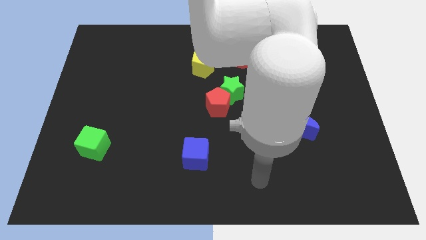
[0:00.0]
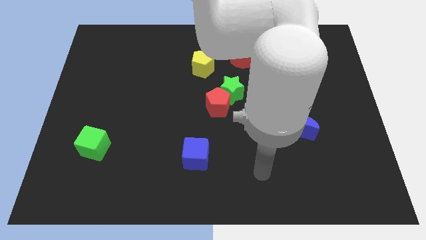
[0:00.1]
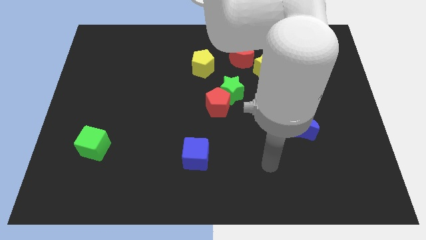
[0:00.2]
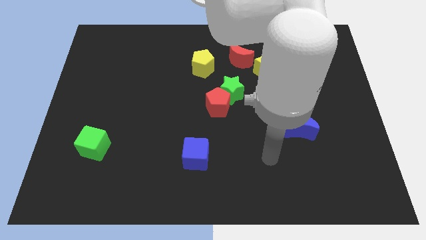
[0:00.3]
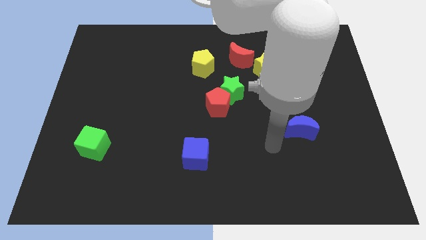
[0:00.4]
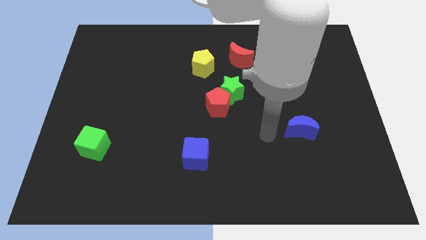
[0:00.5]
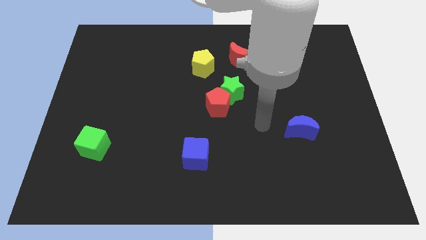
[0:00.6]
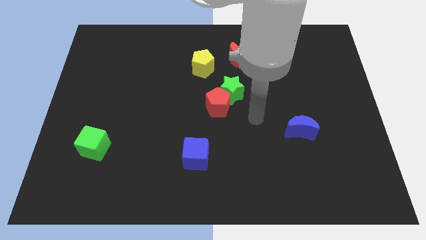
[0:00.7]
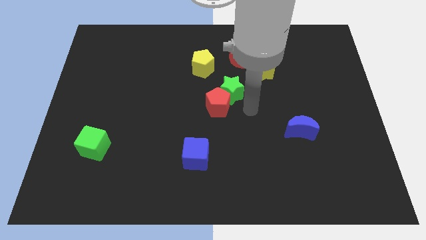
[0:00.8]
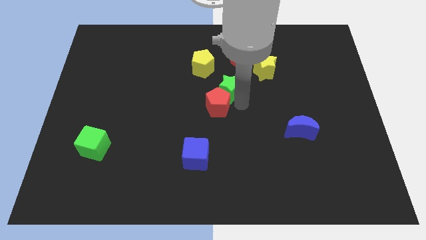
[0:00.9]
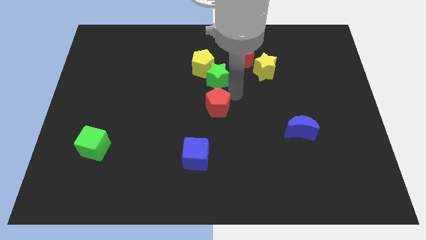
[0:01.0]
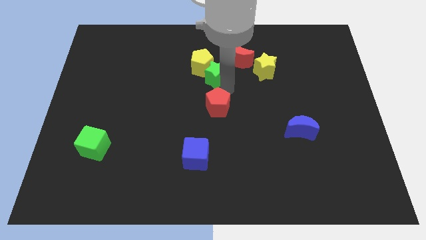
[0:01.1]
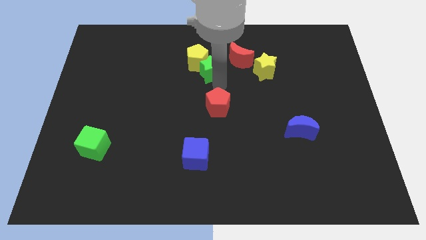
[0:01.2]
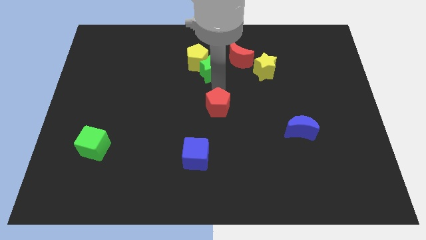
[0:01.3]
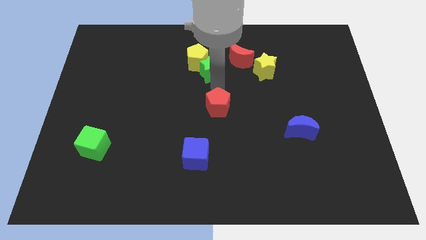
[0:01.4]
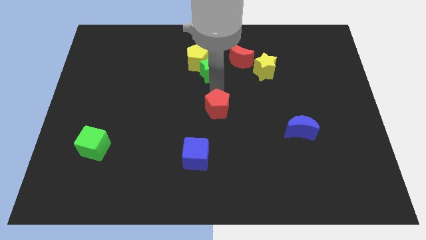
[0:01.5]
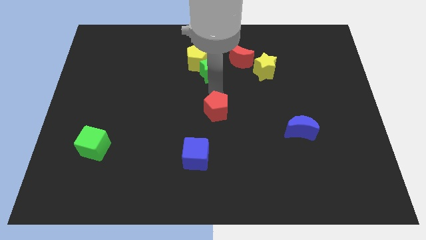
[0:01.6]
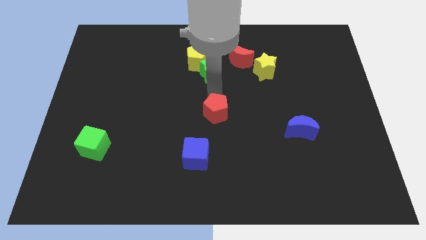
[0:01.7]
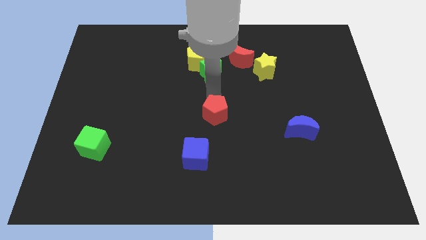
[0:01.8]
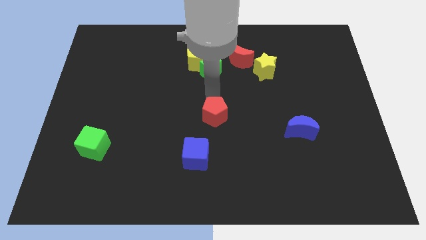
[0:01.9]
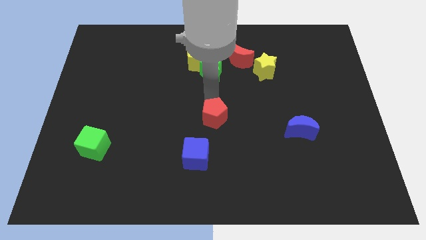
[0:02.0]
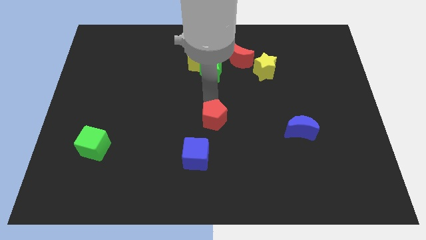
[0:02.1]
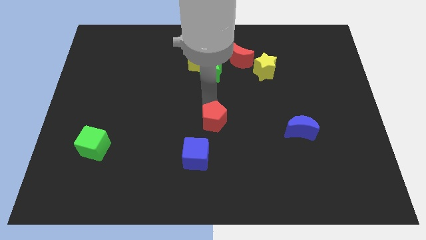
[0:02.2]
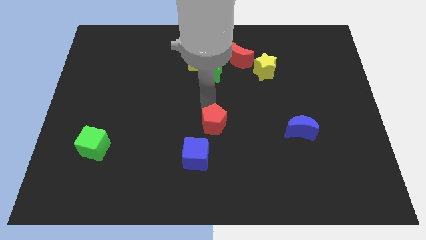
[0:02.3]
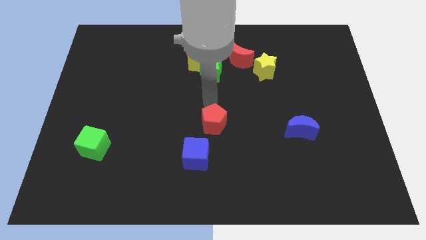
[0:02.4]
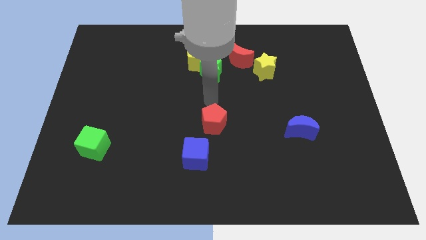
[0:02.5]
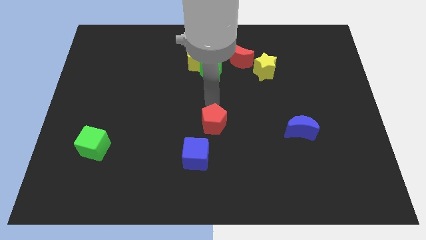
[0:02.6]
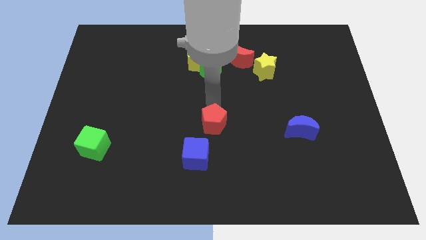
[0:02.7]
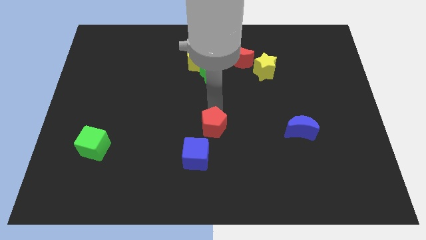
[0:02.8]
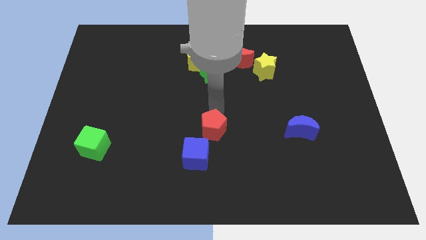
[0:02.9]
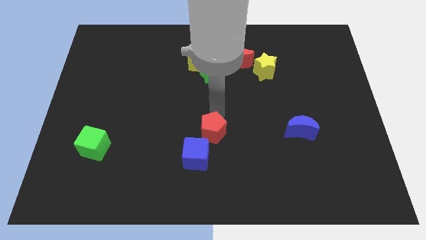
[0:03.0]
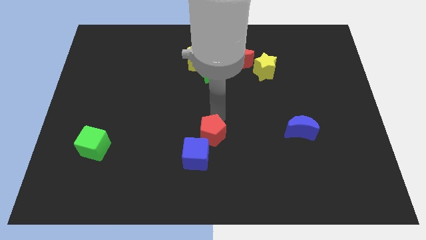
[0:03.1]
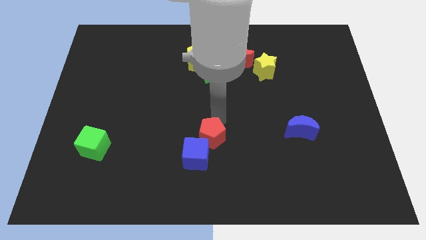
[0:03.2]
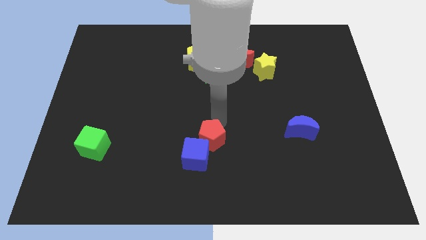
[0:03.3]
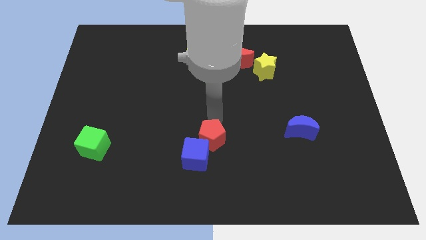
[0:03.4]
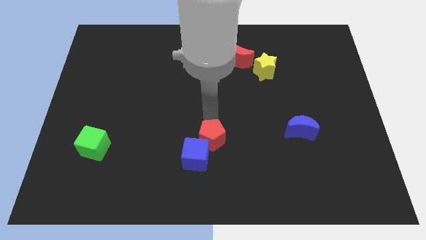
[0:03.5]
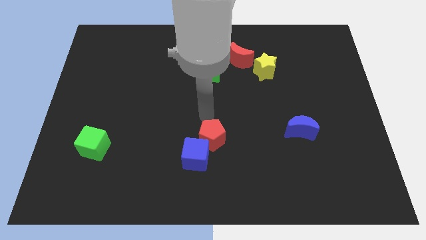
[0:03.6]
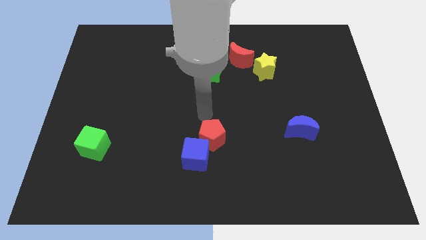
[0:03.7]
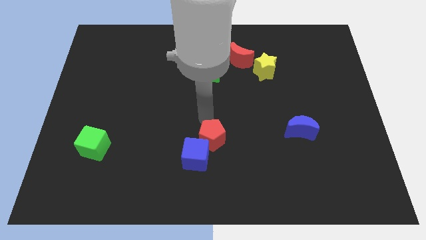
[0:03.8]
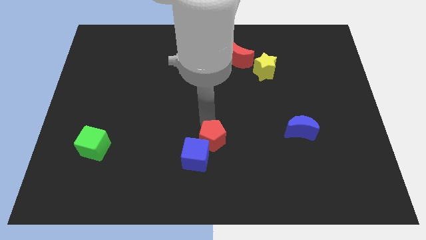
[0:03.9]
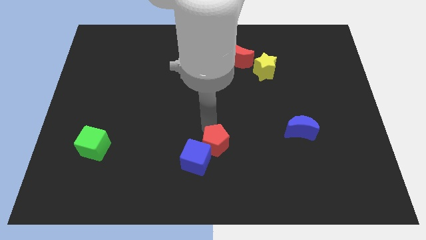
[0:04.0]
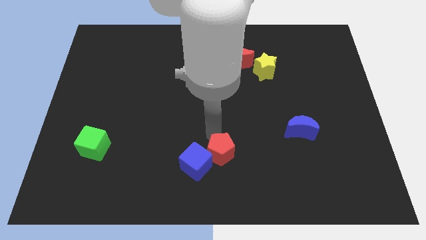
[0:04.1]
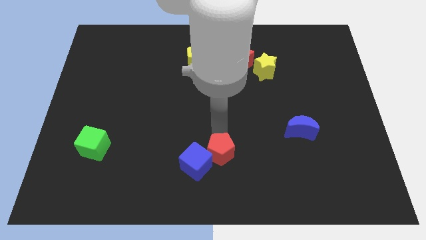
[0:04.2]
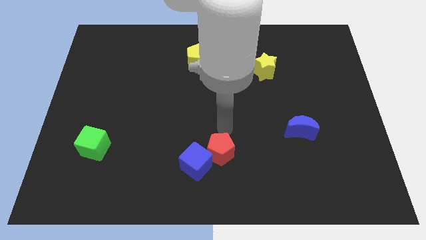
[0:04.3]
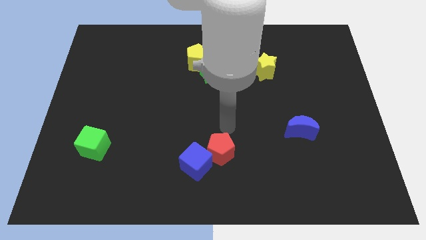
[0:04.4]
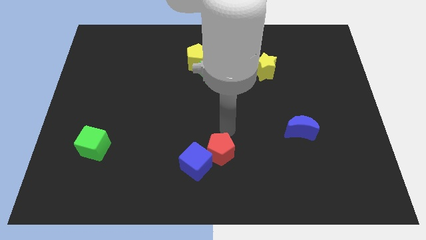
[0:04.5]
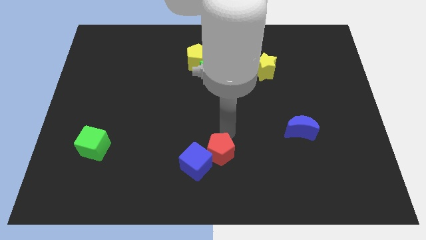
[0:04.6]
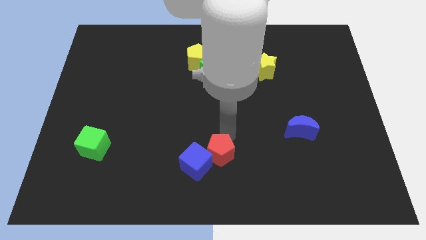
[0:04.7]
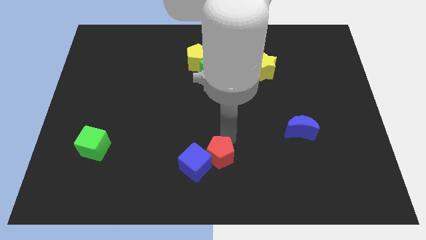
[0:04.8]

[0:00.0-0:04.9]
put the red pentagon to the bottom

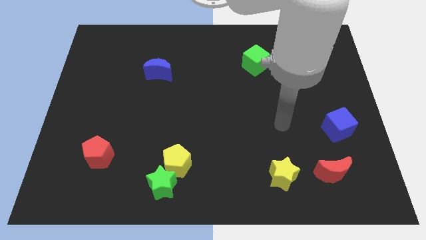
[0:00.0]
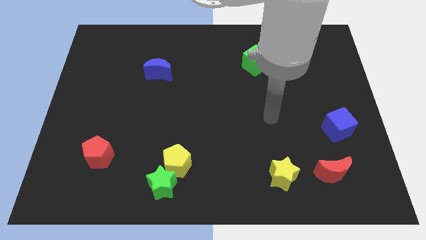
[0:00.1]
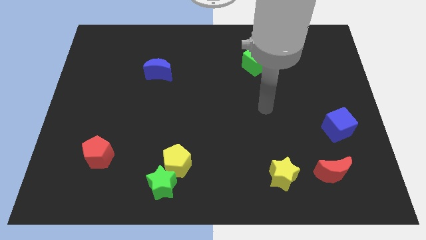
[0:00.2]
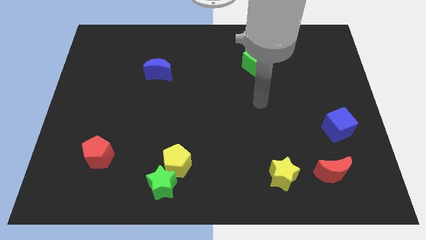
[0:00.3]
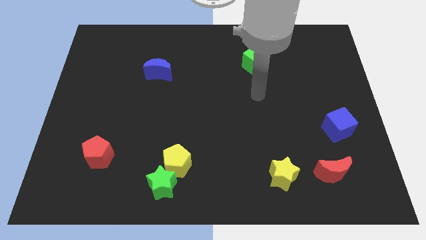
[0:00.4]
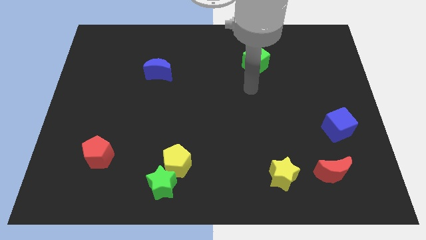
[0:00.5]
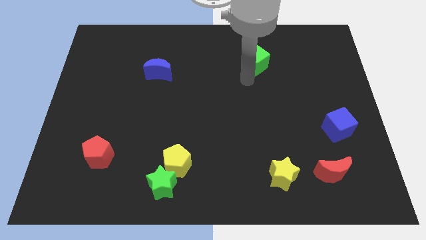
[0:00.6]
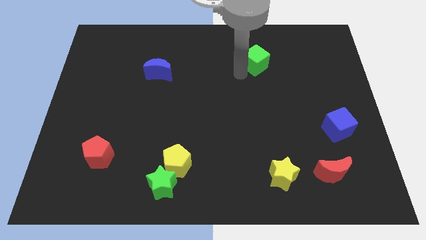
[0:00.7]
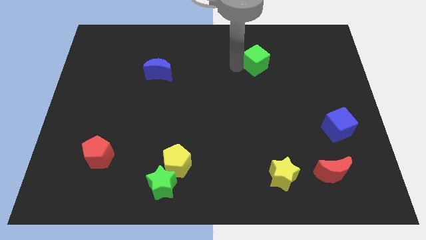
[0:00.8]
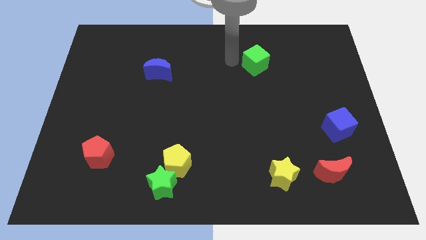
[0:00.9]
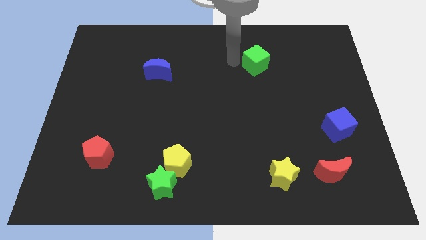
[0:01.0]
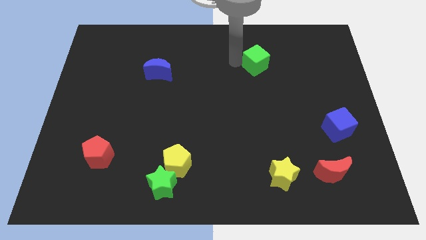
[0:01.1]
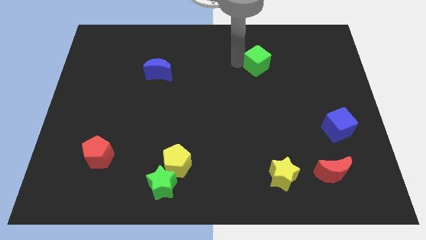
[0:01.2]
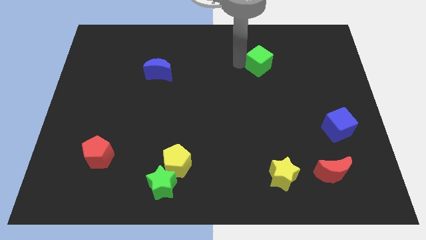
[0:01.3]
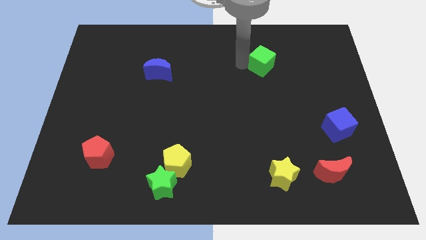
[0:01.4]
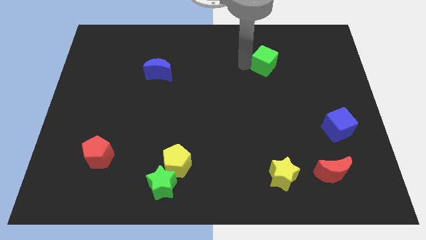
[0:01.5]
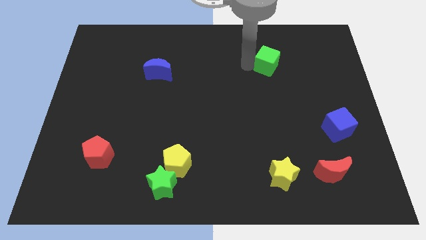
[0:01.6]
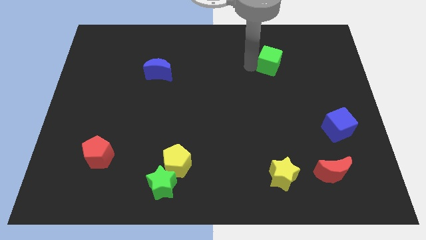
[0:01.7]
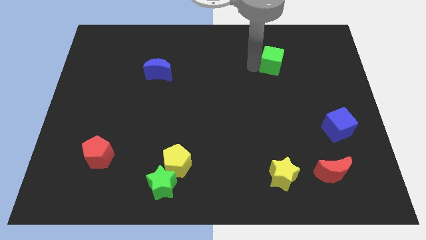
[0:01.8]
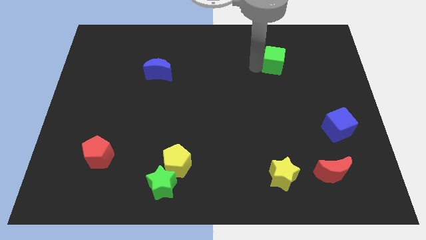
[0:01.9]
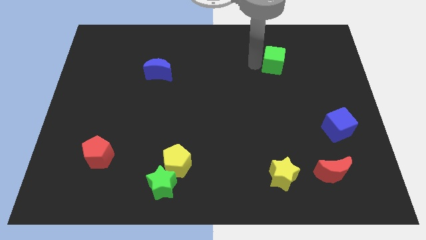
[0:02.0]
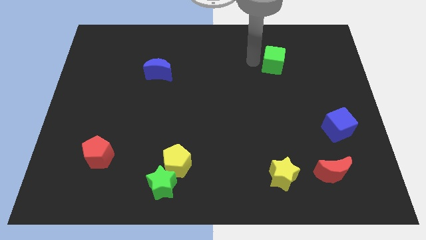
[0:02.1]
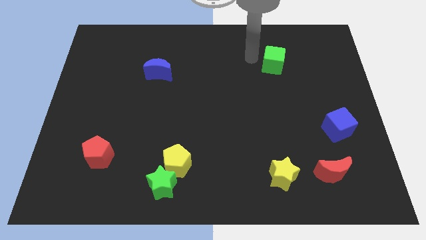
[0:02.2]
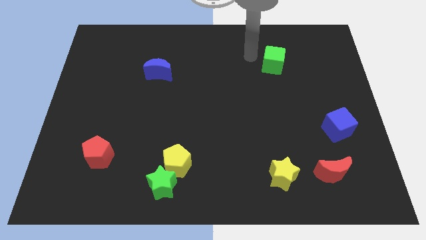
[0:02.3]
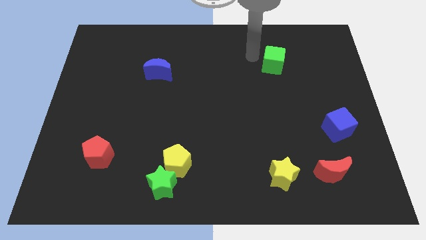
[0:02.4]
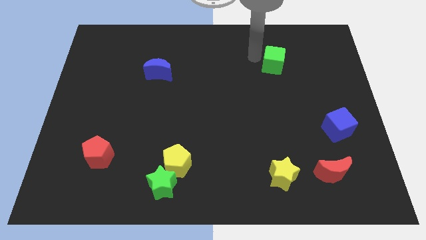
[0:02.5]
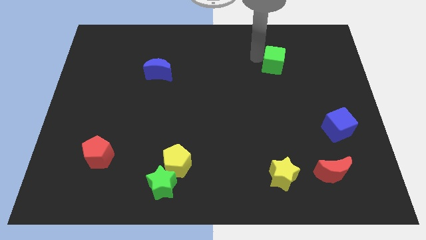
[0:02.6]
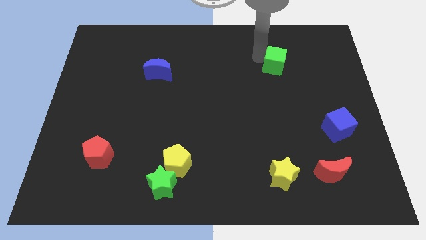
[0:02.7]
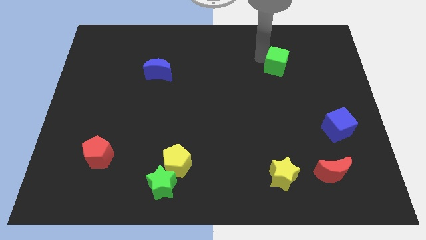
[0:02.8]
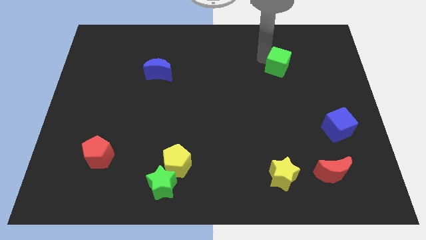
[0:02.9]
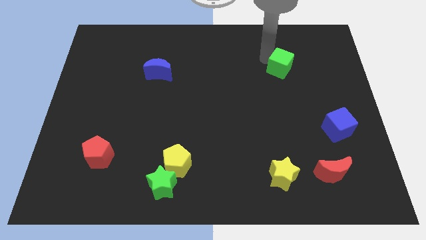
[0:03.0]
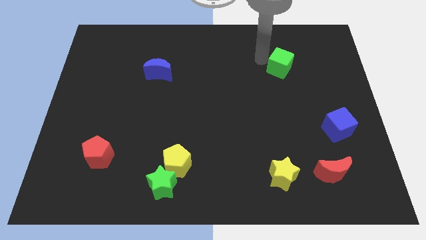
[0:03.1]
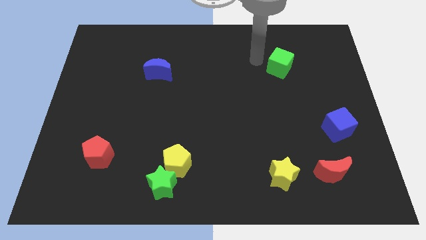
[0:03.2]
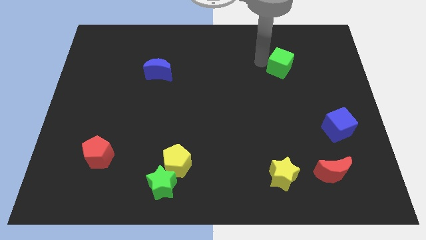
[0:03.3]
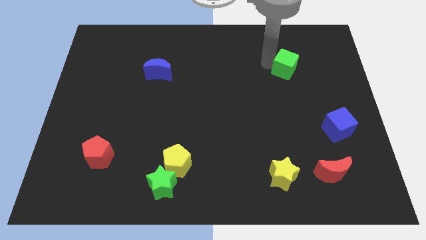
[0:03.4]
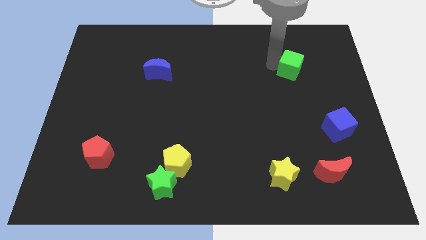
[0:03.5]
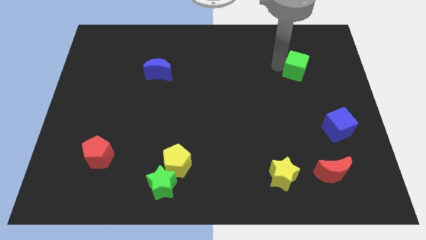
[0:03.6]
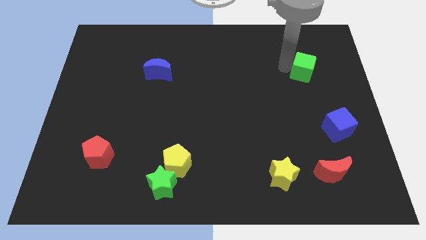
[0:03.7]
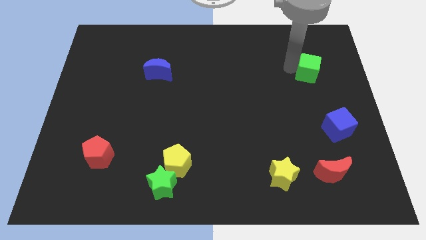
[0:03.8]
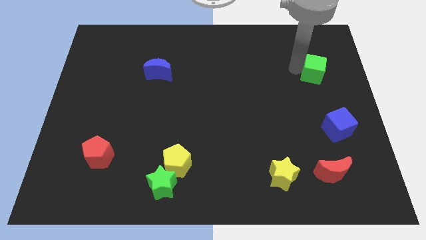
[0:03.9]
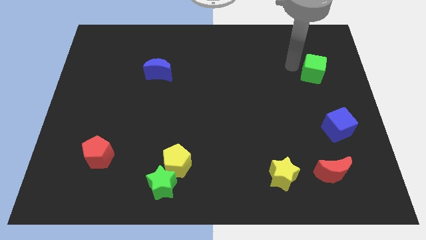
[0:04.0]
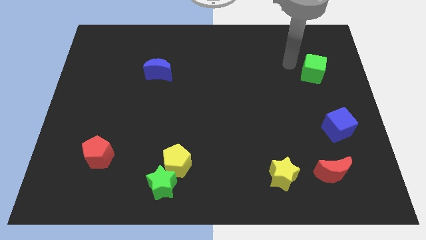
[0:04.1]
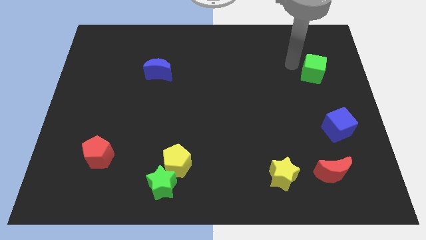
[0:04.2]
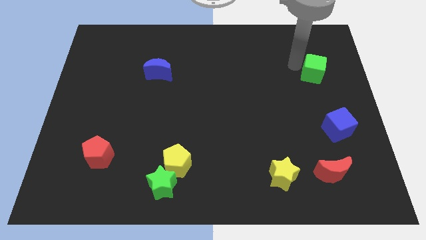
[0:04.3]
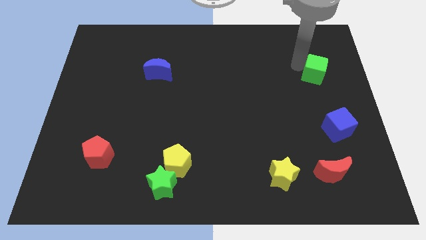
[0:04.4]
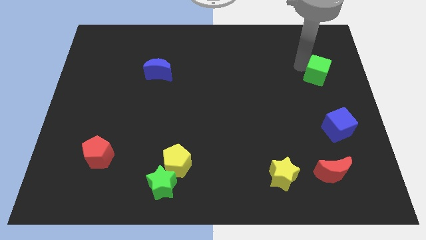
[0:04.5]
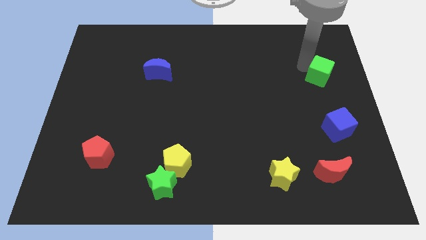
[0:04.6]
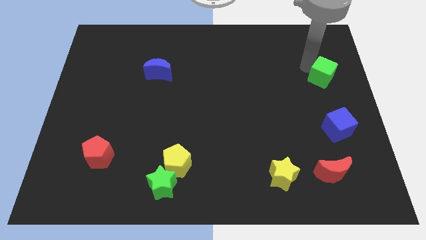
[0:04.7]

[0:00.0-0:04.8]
move the green cube to the center right
